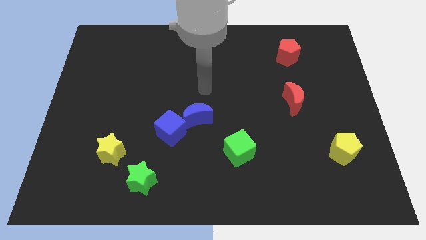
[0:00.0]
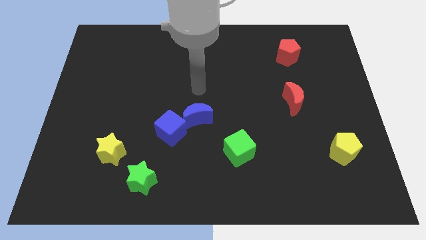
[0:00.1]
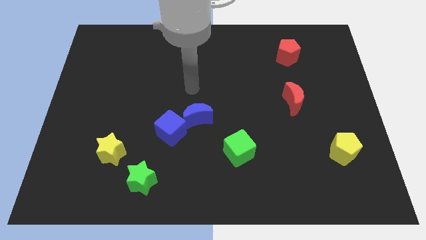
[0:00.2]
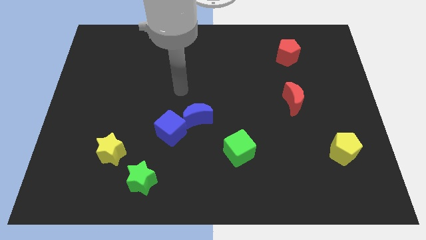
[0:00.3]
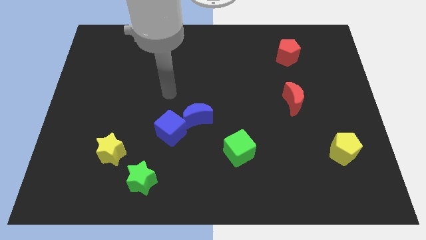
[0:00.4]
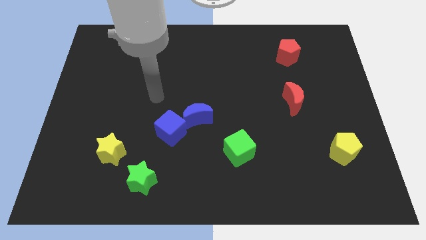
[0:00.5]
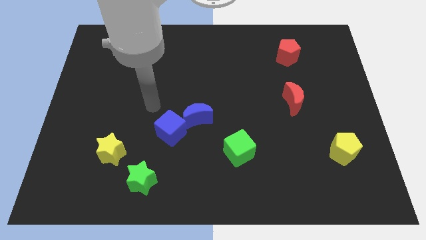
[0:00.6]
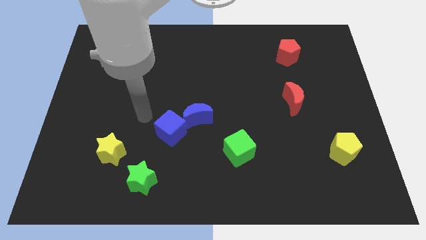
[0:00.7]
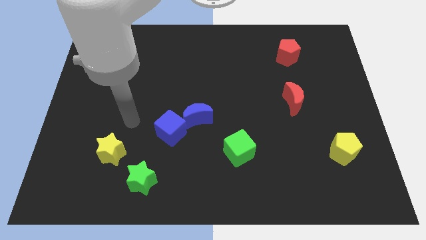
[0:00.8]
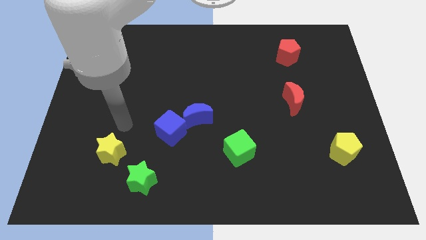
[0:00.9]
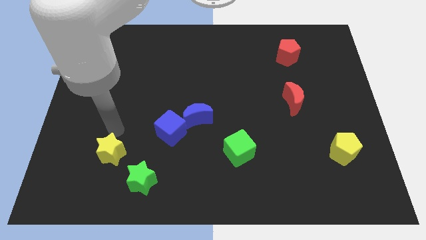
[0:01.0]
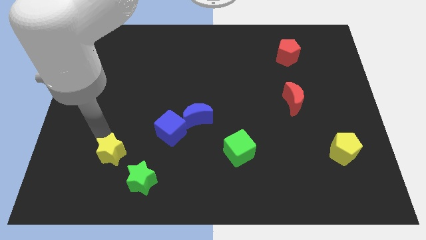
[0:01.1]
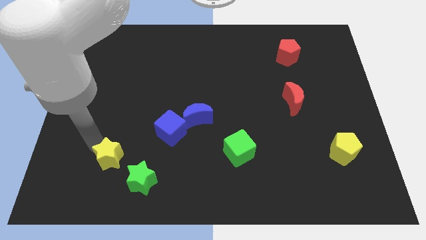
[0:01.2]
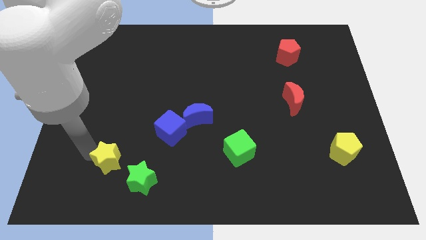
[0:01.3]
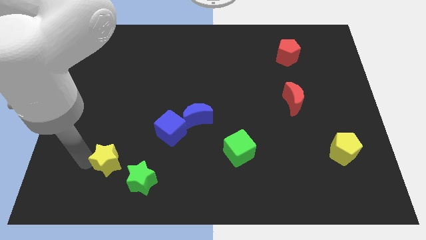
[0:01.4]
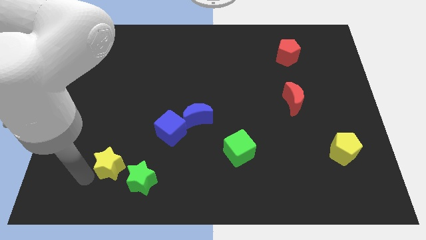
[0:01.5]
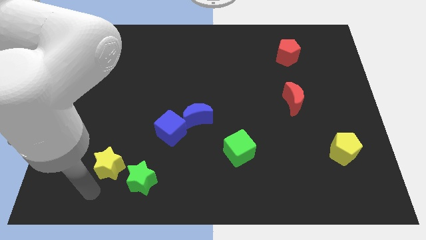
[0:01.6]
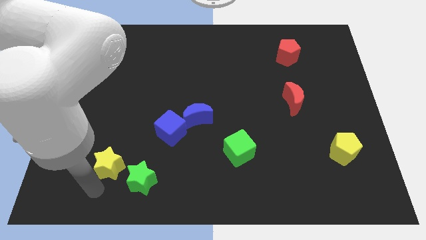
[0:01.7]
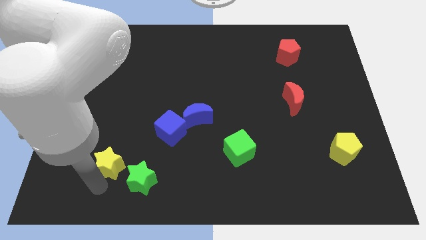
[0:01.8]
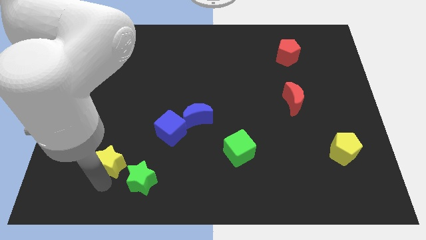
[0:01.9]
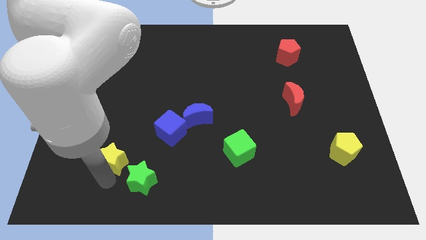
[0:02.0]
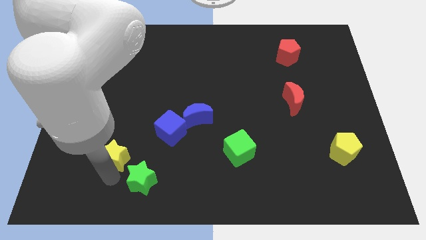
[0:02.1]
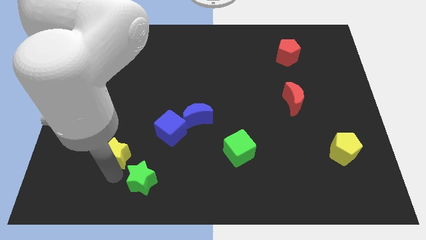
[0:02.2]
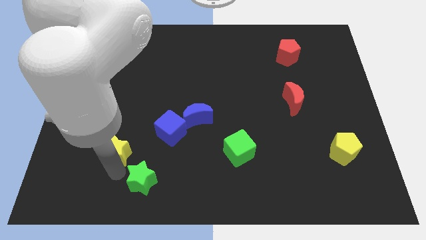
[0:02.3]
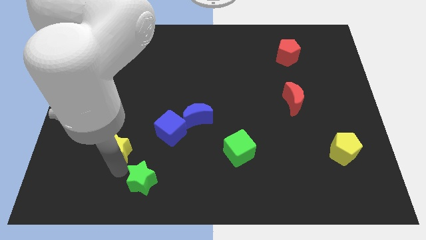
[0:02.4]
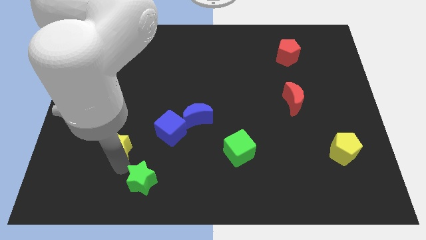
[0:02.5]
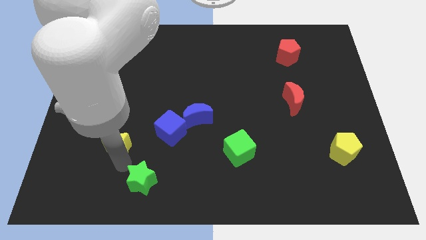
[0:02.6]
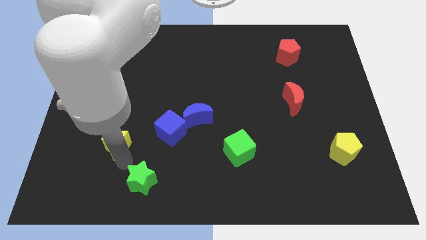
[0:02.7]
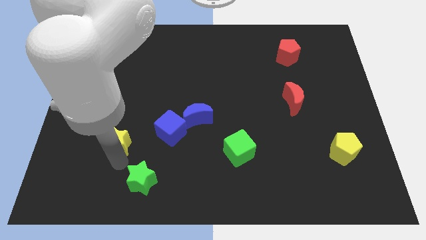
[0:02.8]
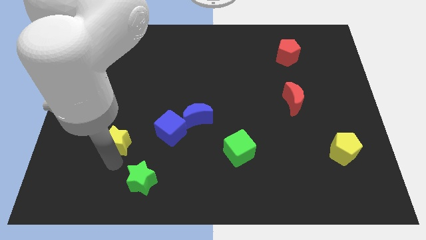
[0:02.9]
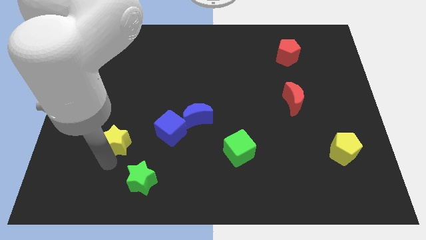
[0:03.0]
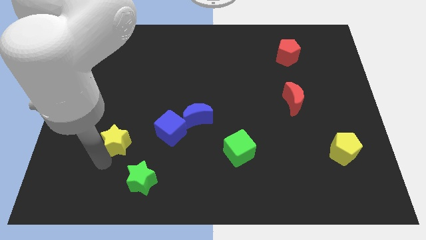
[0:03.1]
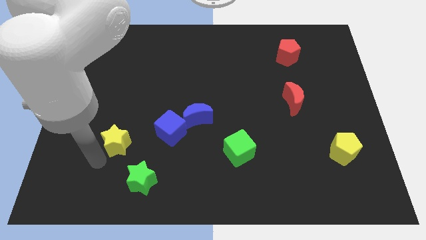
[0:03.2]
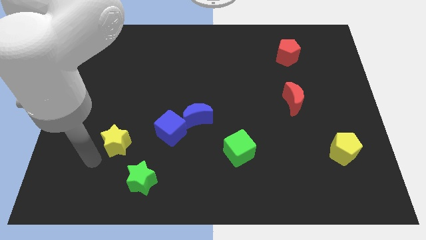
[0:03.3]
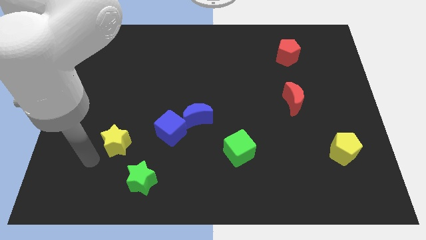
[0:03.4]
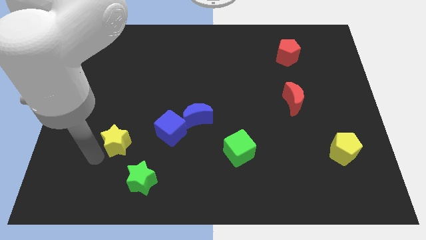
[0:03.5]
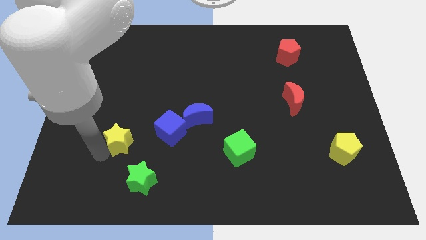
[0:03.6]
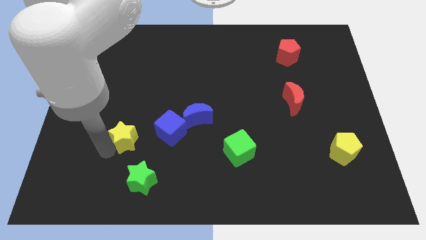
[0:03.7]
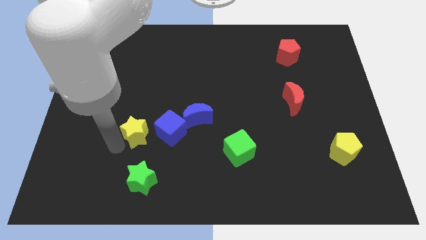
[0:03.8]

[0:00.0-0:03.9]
slightly push the yellow star upwards and right diagonally

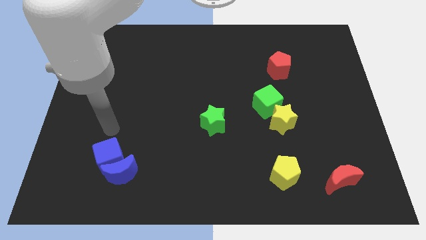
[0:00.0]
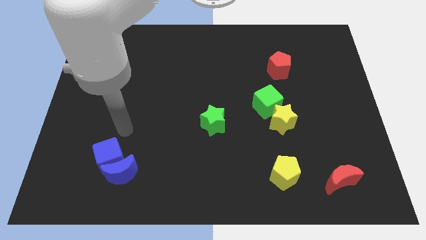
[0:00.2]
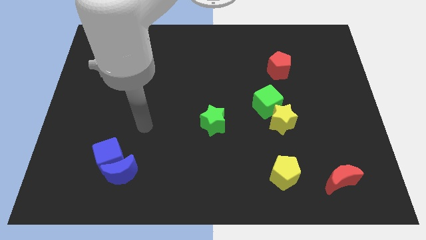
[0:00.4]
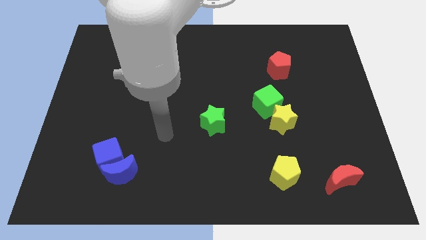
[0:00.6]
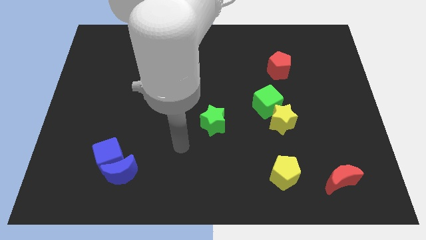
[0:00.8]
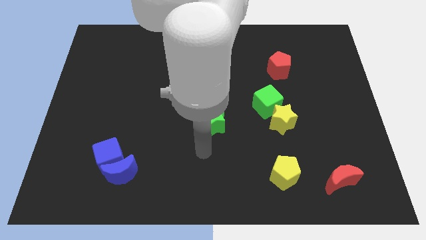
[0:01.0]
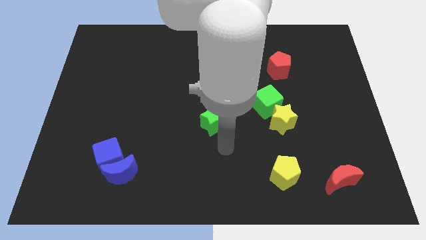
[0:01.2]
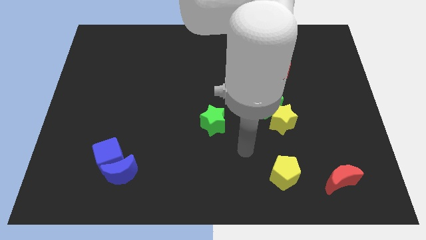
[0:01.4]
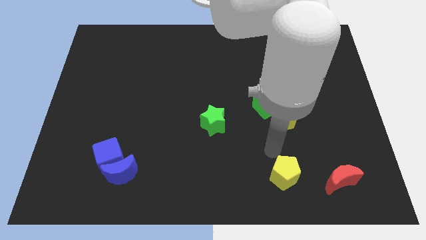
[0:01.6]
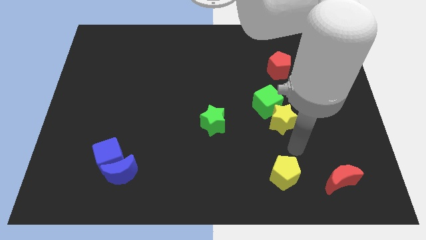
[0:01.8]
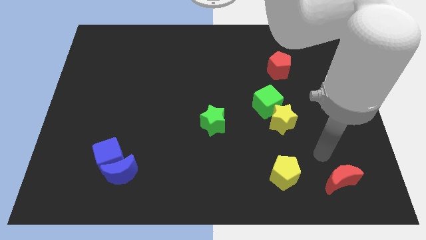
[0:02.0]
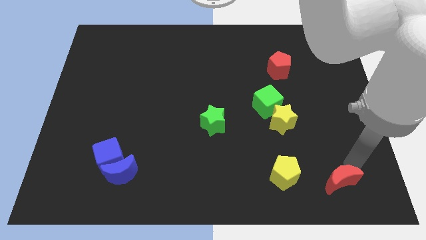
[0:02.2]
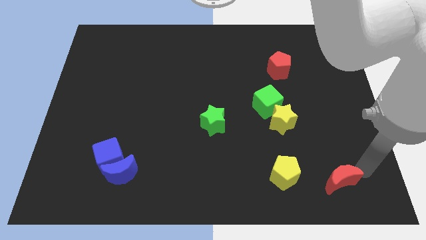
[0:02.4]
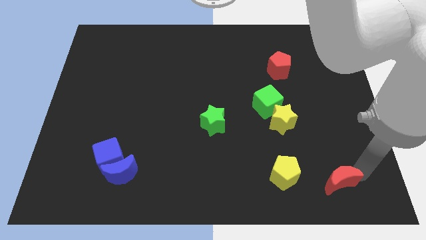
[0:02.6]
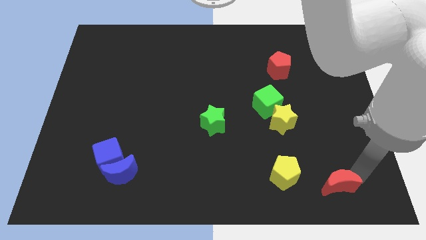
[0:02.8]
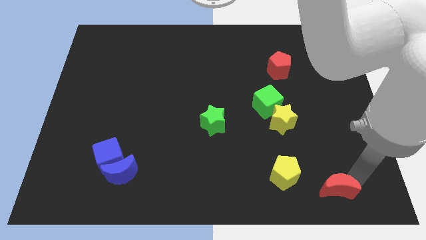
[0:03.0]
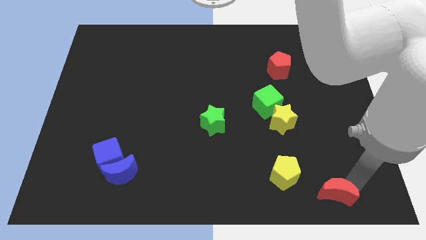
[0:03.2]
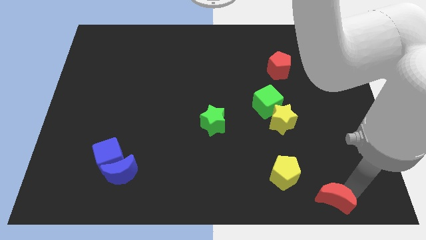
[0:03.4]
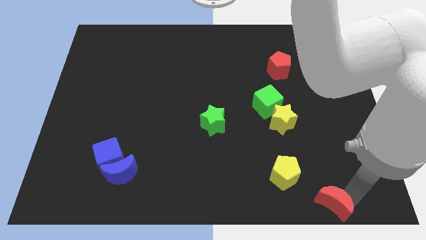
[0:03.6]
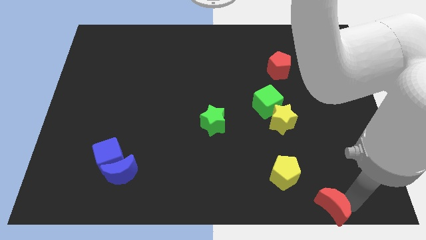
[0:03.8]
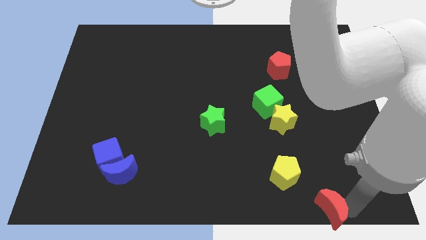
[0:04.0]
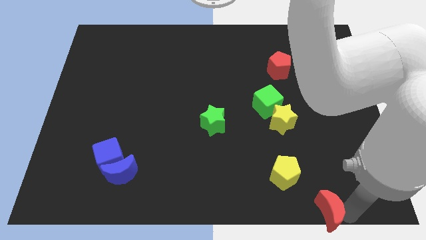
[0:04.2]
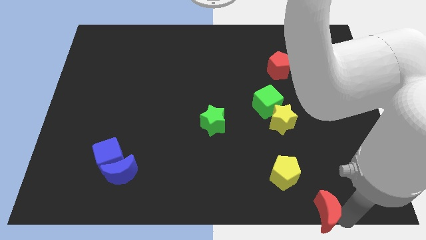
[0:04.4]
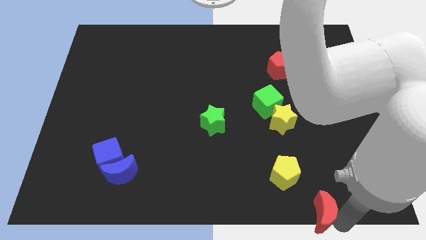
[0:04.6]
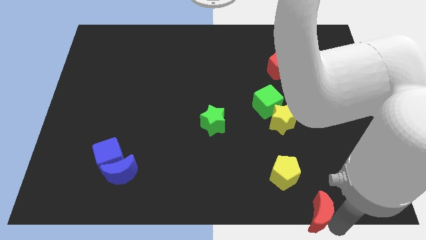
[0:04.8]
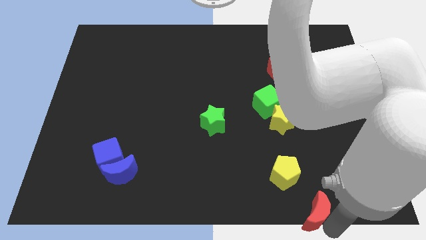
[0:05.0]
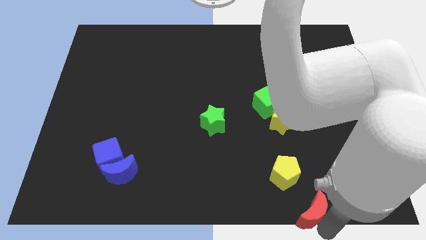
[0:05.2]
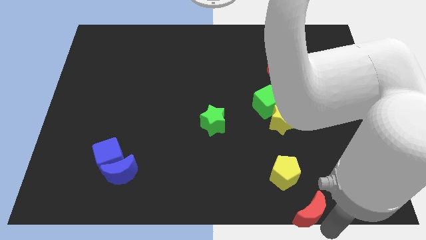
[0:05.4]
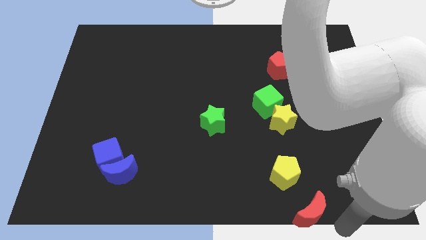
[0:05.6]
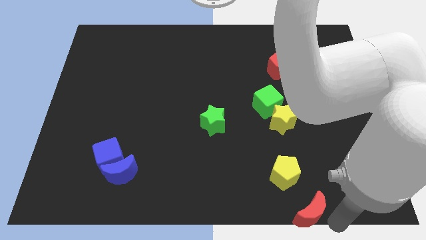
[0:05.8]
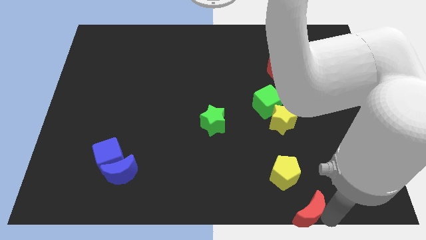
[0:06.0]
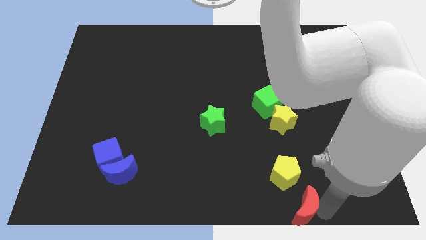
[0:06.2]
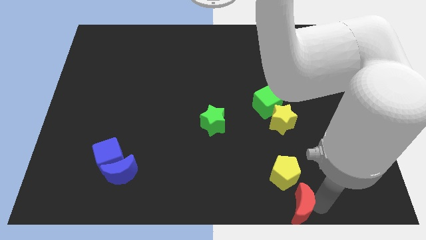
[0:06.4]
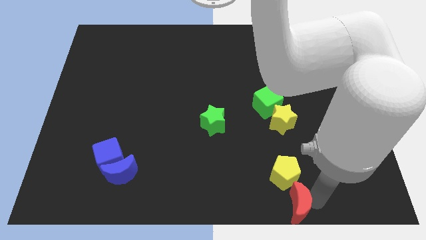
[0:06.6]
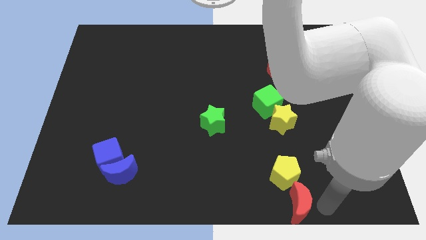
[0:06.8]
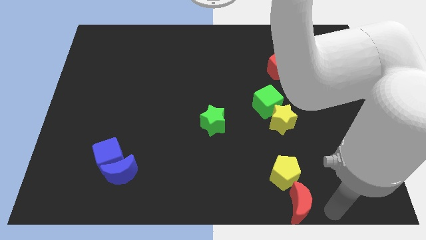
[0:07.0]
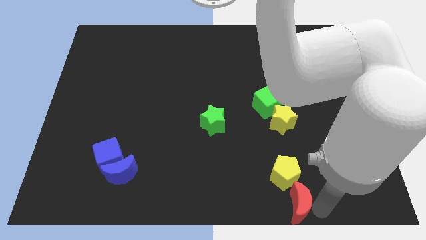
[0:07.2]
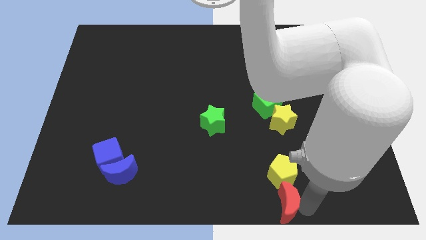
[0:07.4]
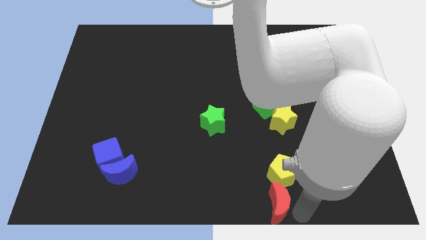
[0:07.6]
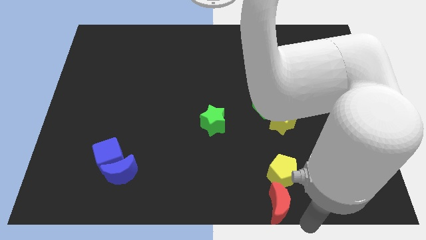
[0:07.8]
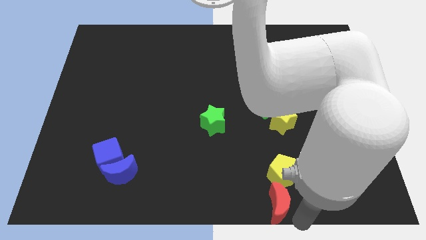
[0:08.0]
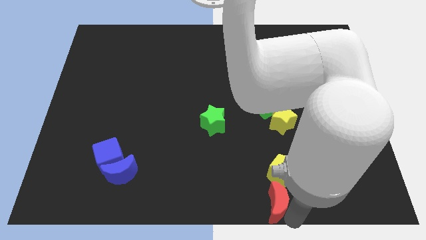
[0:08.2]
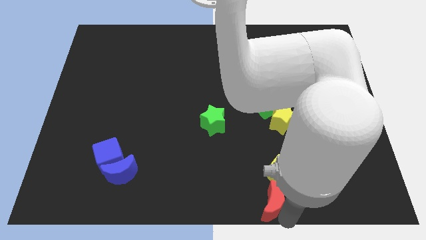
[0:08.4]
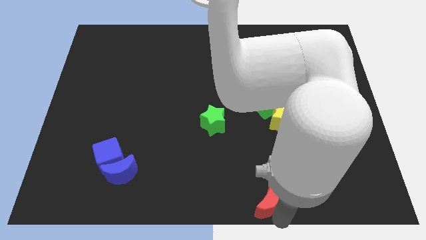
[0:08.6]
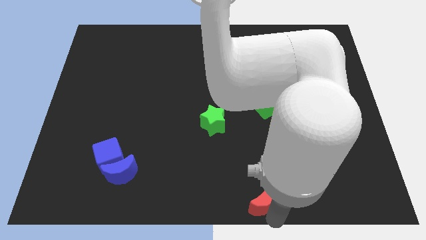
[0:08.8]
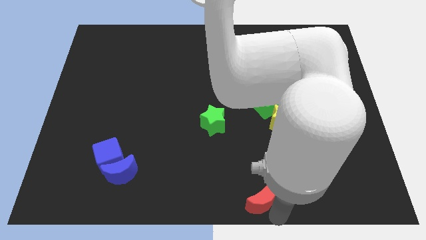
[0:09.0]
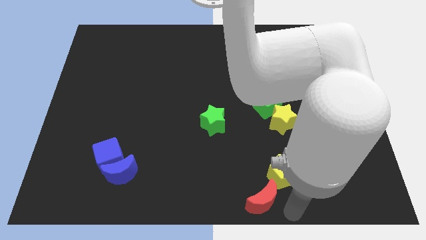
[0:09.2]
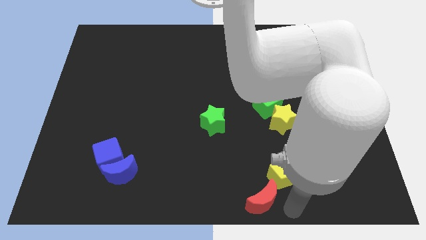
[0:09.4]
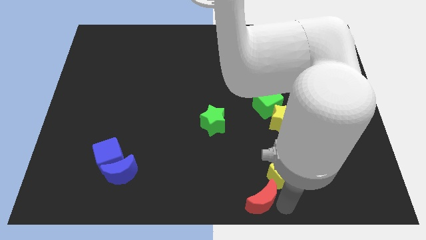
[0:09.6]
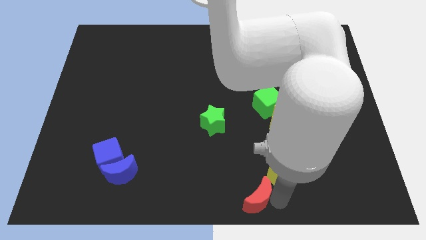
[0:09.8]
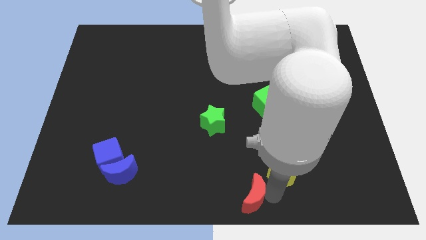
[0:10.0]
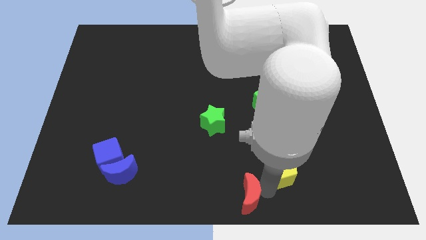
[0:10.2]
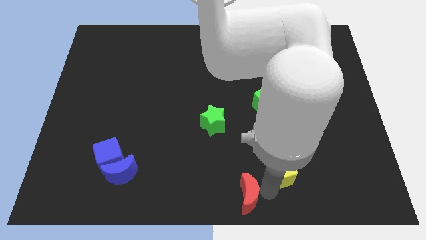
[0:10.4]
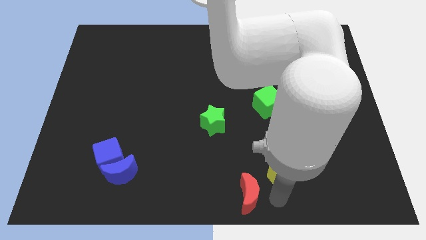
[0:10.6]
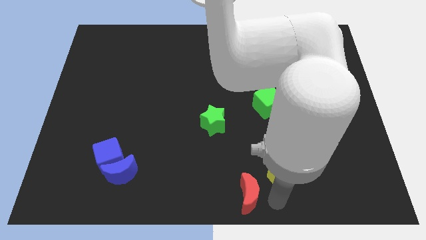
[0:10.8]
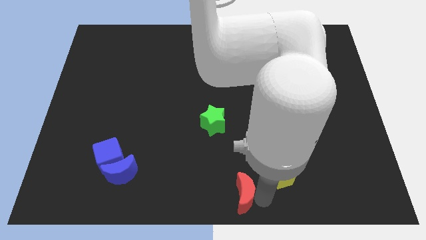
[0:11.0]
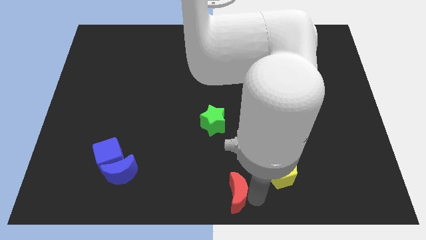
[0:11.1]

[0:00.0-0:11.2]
move the red moon left
